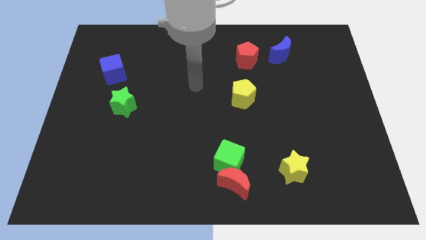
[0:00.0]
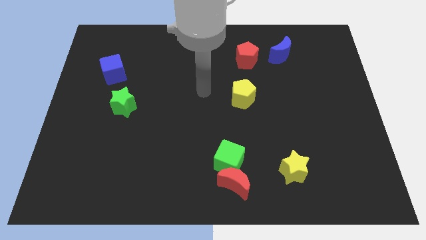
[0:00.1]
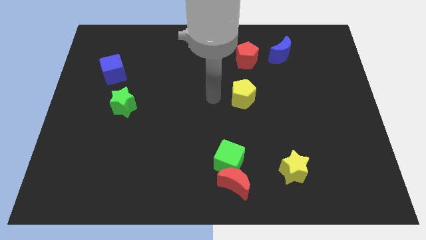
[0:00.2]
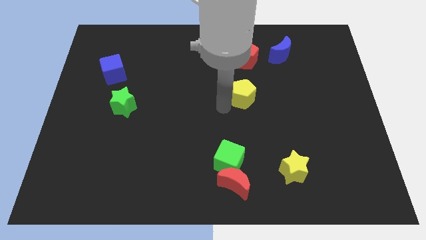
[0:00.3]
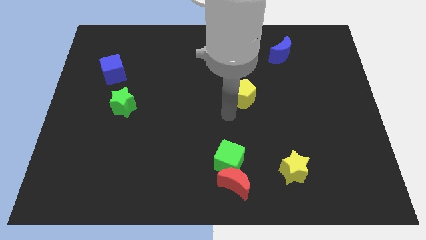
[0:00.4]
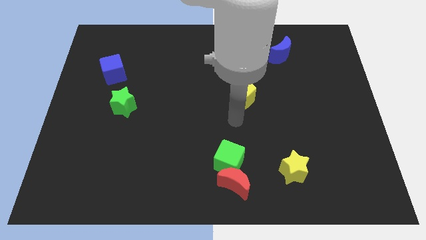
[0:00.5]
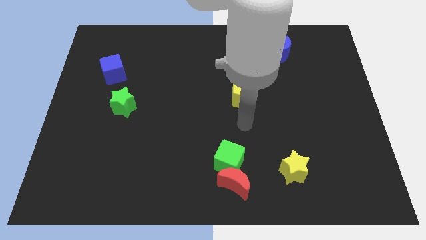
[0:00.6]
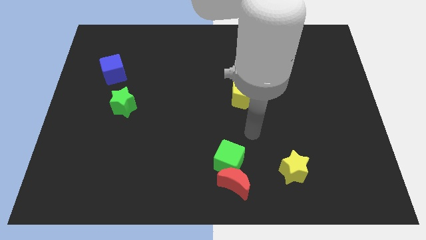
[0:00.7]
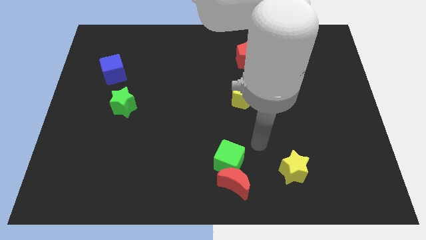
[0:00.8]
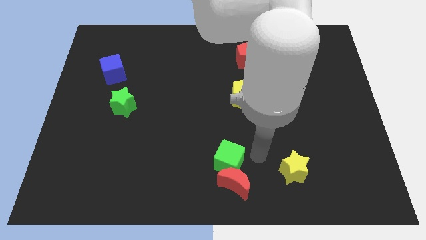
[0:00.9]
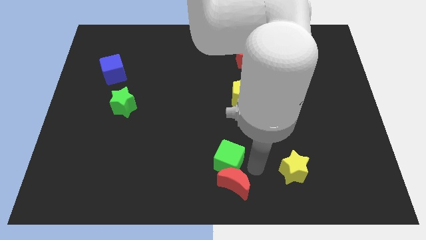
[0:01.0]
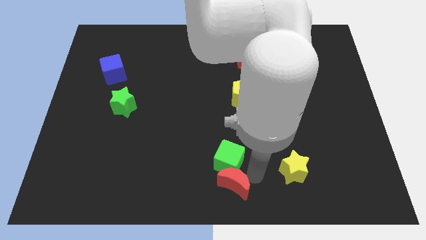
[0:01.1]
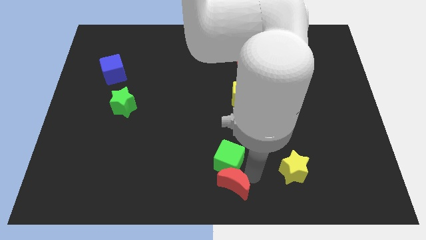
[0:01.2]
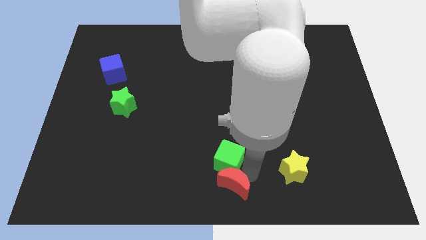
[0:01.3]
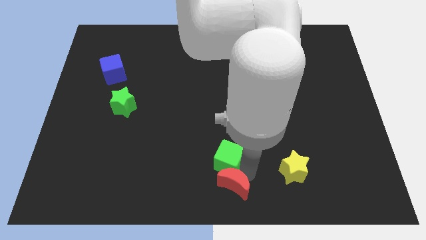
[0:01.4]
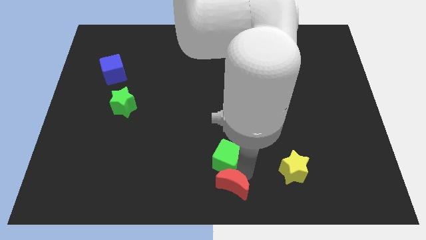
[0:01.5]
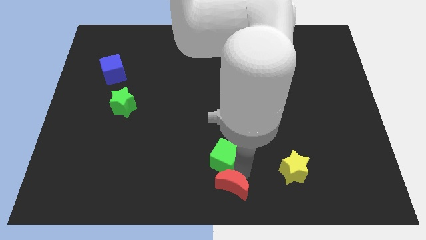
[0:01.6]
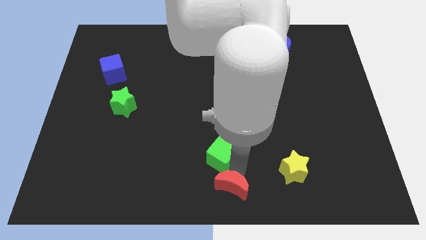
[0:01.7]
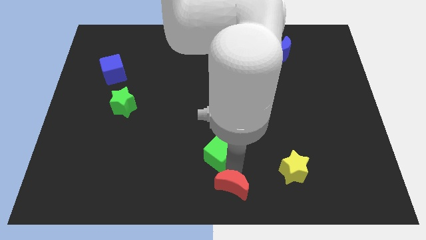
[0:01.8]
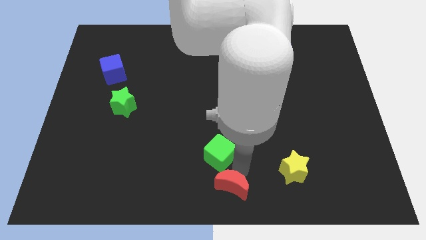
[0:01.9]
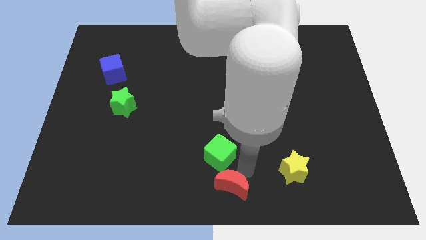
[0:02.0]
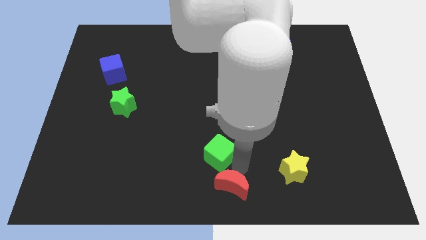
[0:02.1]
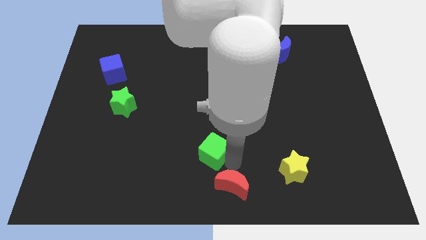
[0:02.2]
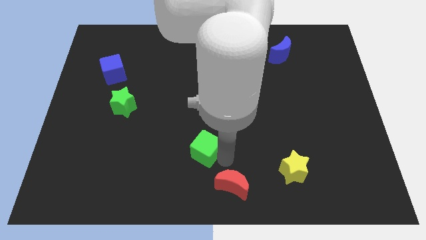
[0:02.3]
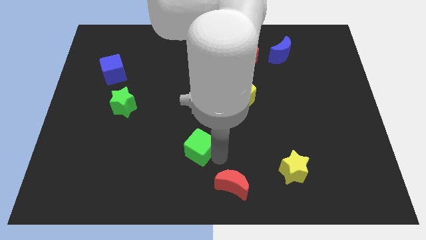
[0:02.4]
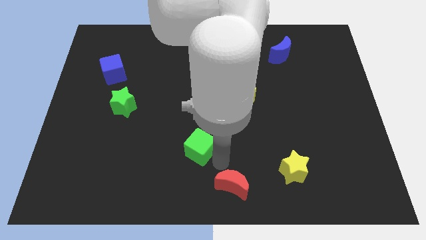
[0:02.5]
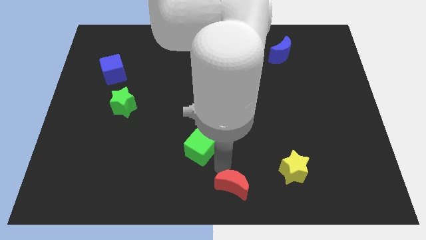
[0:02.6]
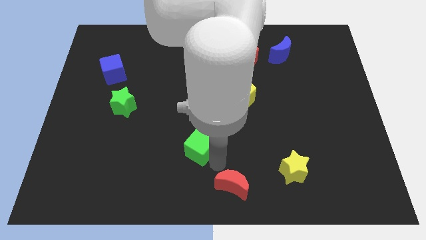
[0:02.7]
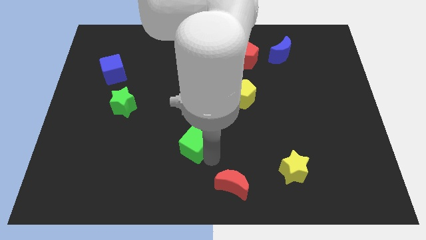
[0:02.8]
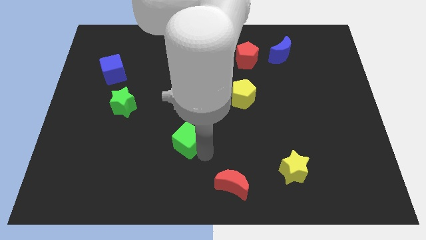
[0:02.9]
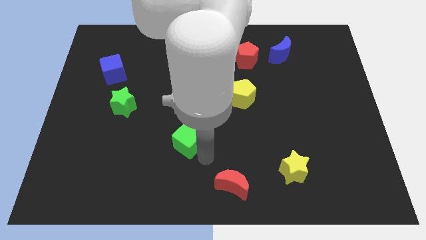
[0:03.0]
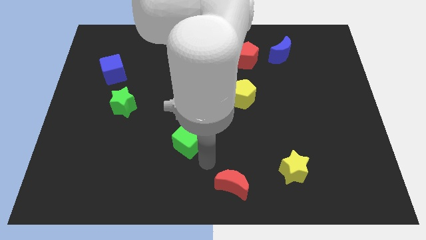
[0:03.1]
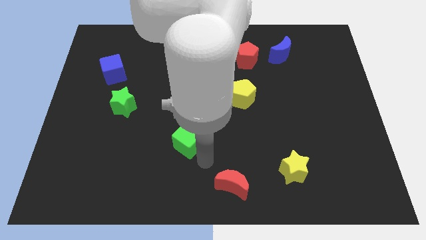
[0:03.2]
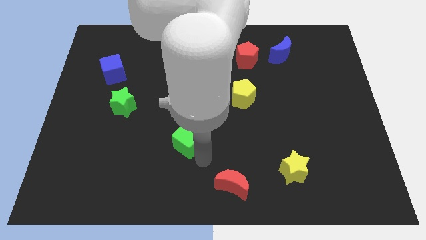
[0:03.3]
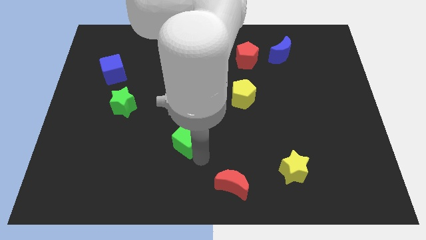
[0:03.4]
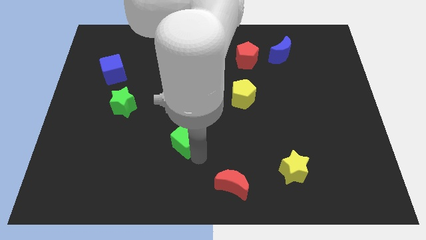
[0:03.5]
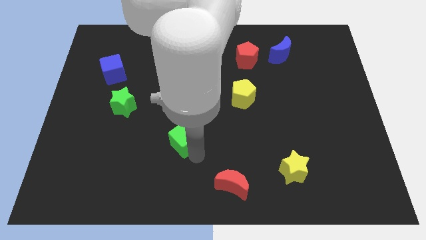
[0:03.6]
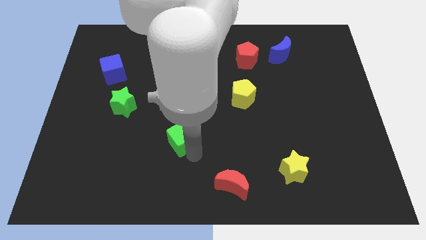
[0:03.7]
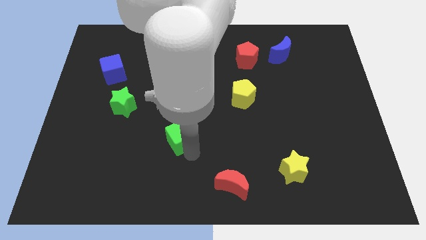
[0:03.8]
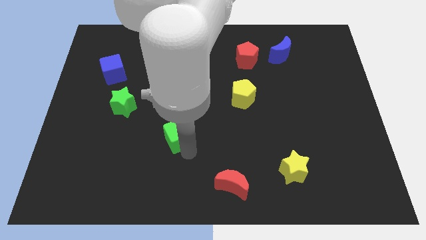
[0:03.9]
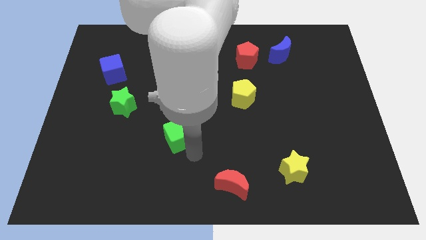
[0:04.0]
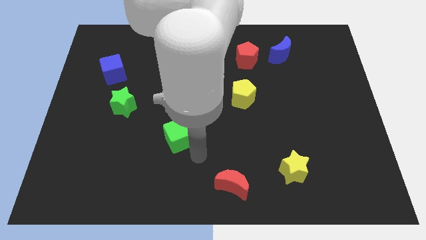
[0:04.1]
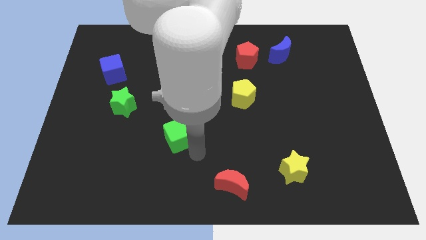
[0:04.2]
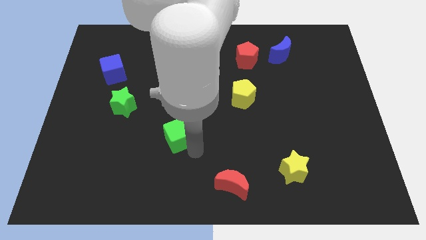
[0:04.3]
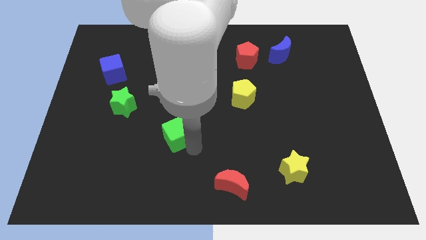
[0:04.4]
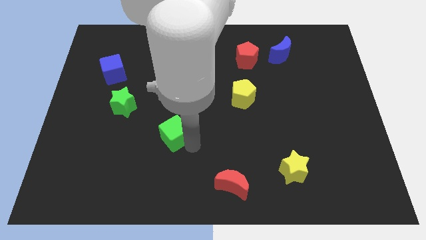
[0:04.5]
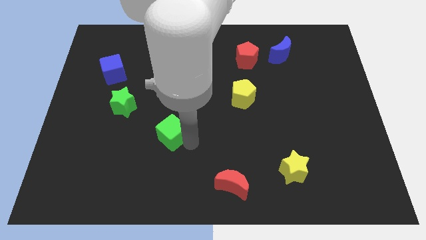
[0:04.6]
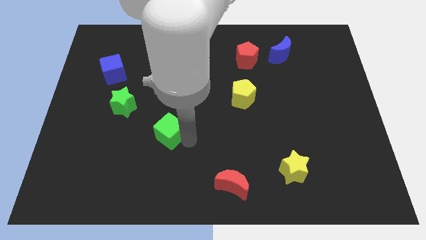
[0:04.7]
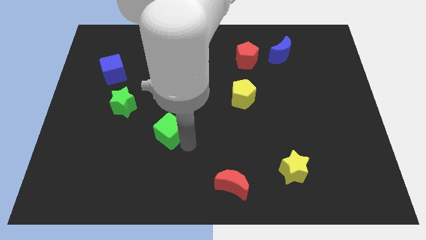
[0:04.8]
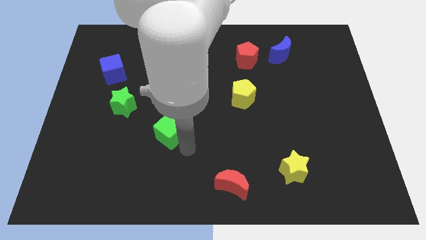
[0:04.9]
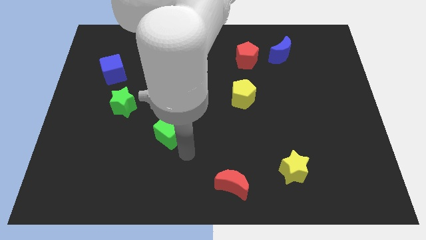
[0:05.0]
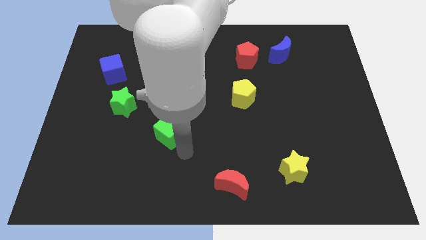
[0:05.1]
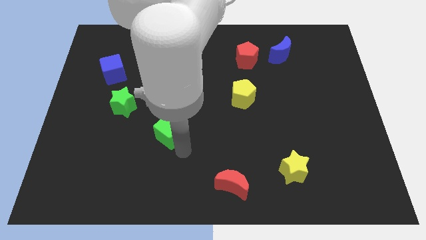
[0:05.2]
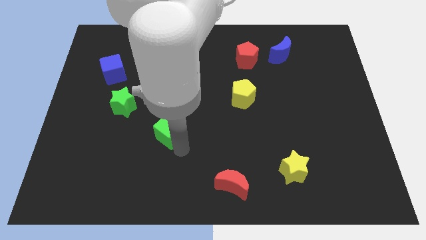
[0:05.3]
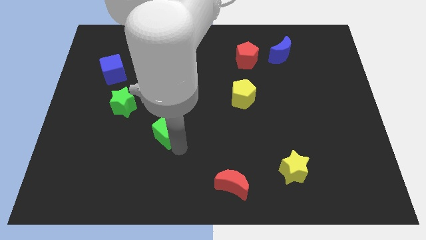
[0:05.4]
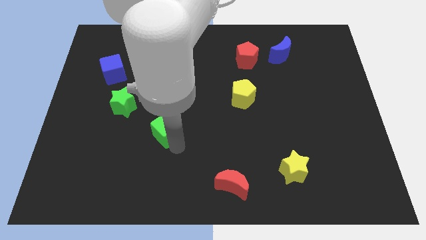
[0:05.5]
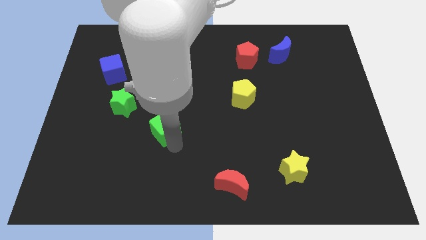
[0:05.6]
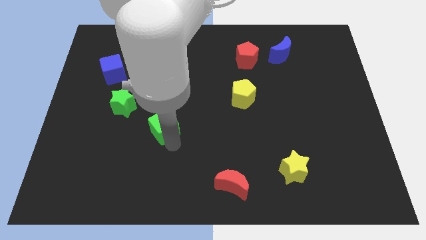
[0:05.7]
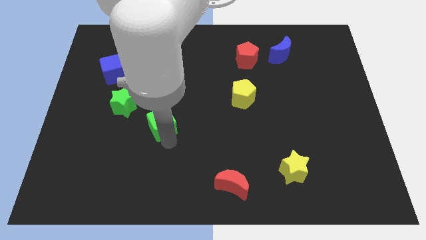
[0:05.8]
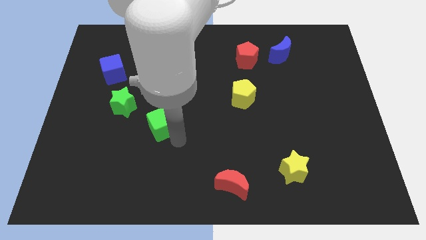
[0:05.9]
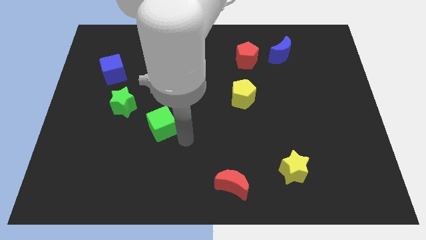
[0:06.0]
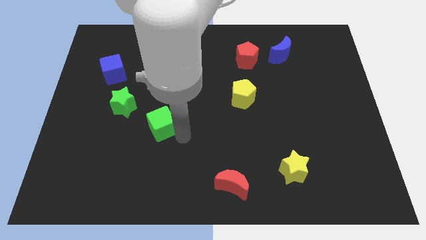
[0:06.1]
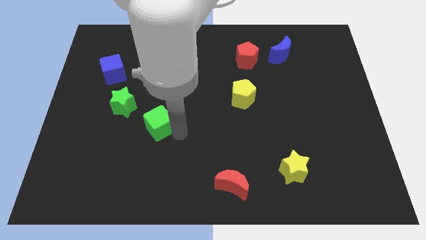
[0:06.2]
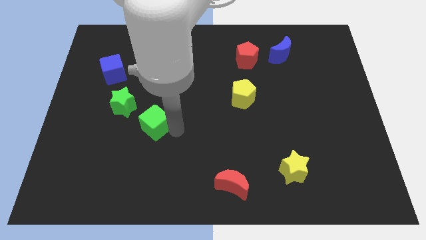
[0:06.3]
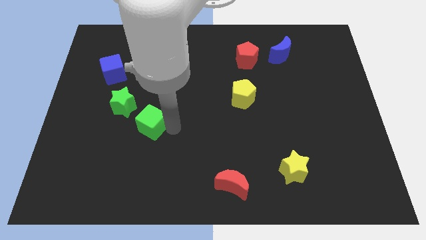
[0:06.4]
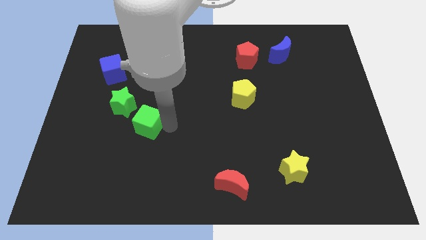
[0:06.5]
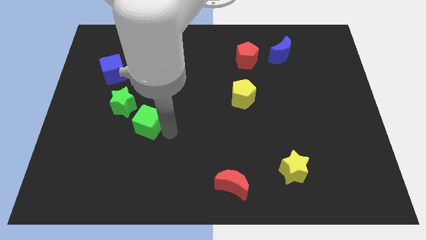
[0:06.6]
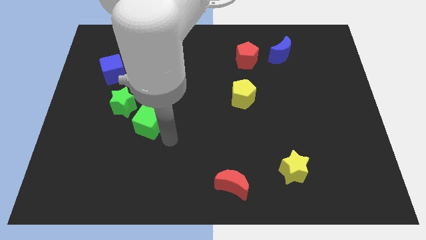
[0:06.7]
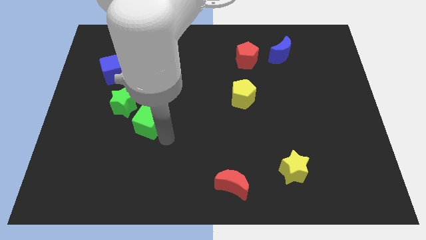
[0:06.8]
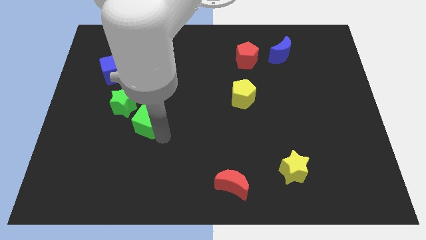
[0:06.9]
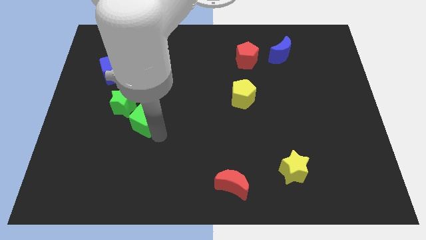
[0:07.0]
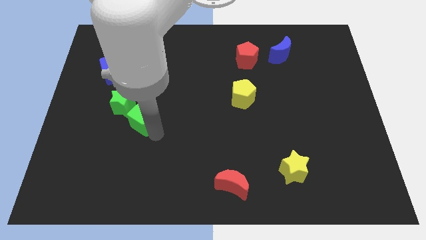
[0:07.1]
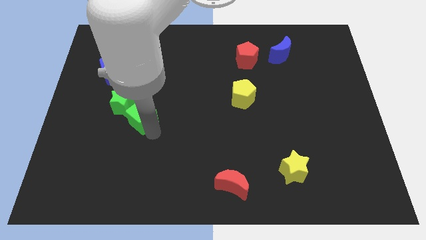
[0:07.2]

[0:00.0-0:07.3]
slide the green cube towards the green star
